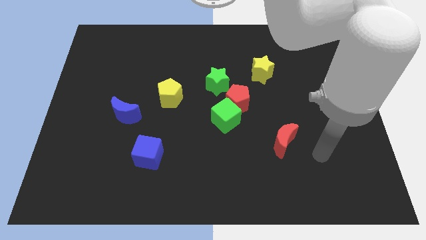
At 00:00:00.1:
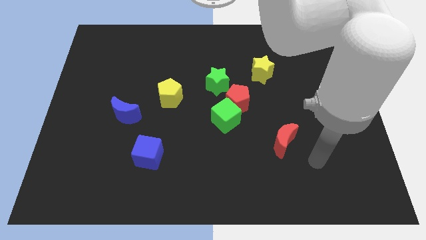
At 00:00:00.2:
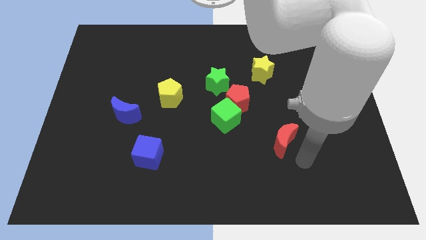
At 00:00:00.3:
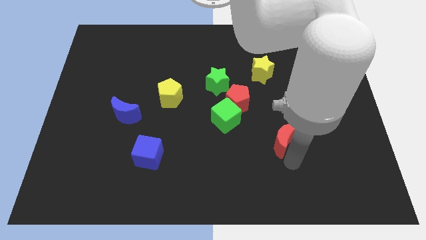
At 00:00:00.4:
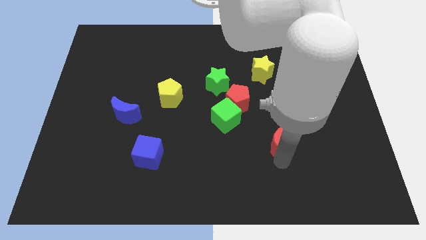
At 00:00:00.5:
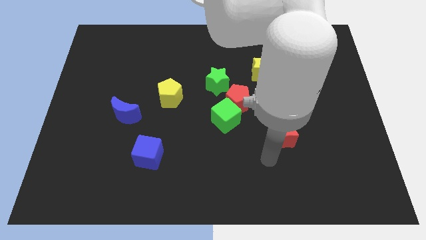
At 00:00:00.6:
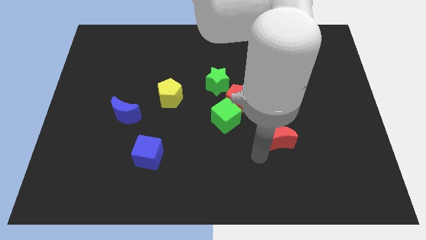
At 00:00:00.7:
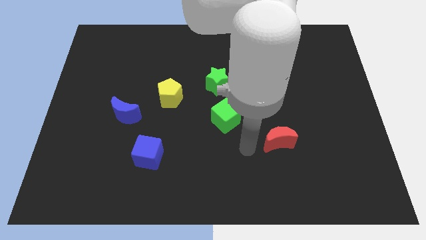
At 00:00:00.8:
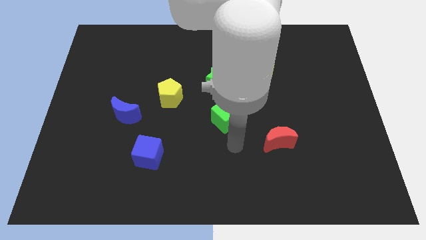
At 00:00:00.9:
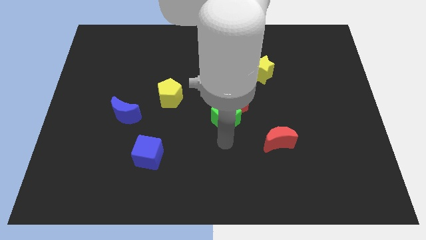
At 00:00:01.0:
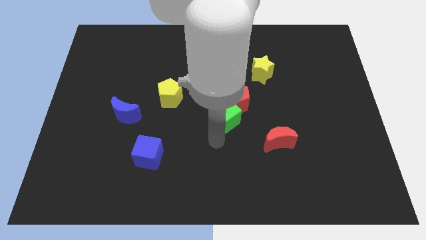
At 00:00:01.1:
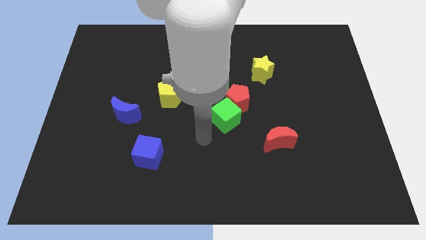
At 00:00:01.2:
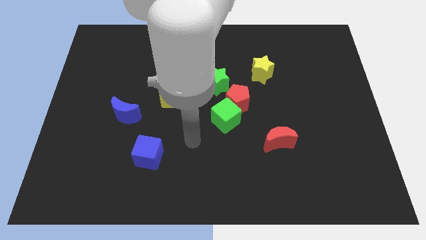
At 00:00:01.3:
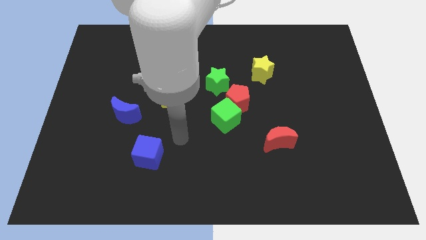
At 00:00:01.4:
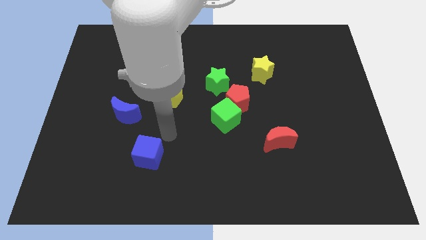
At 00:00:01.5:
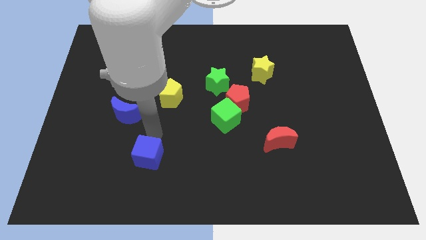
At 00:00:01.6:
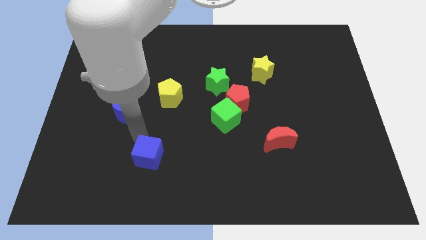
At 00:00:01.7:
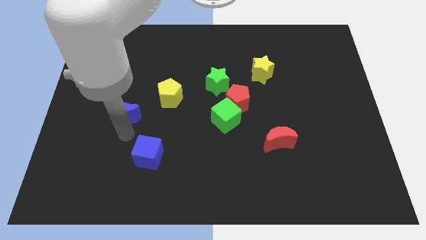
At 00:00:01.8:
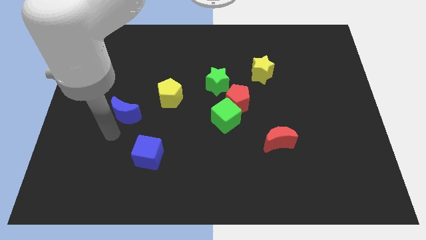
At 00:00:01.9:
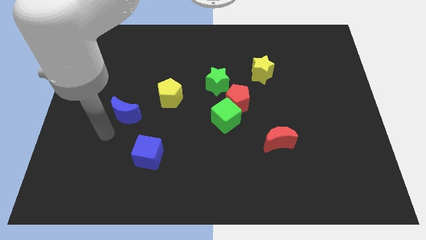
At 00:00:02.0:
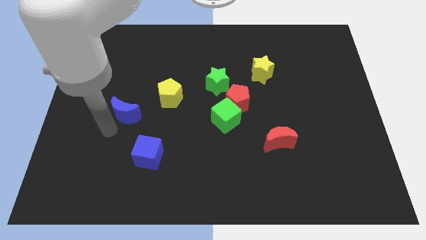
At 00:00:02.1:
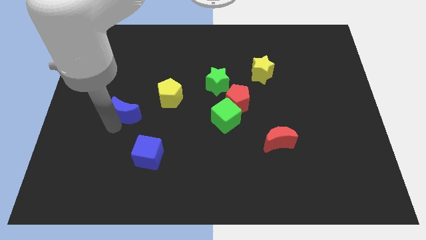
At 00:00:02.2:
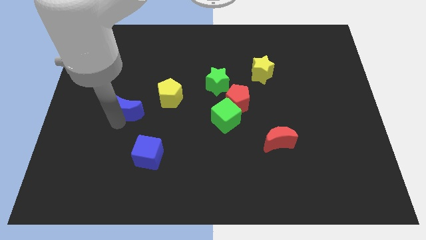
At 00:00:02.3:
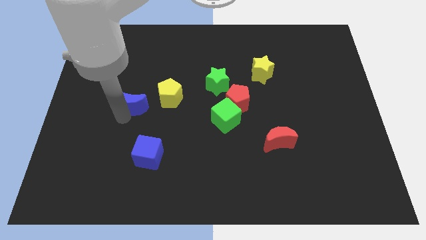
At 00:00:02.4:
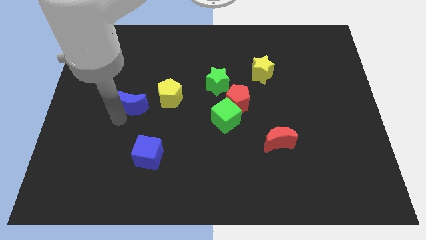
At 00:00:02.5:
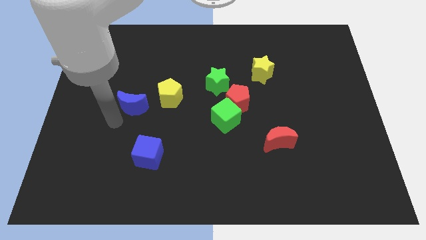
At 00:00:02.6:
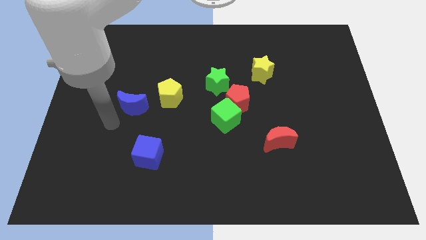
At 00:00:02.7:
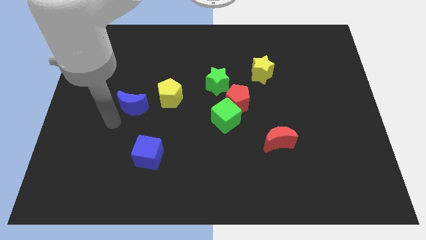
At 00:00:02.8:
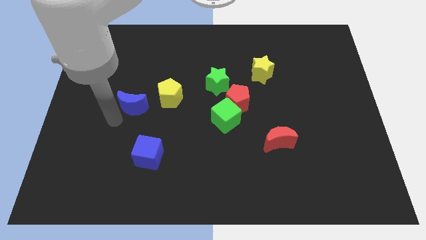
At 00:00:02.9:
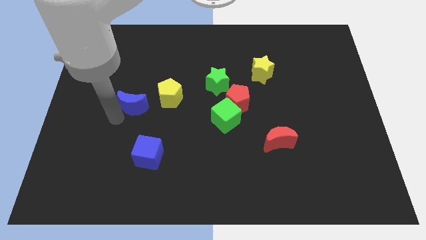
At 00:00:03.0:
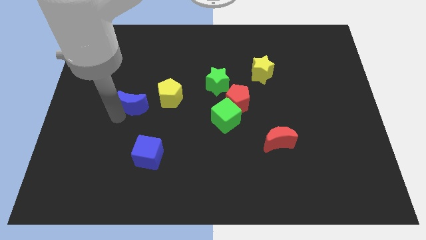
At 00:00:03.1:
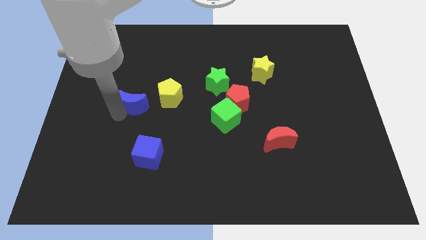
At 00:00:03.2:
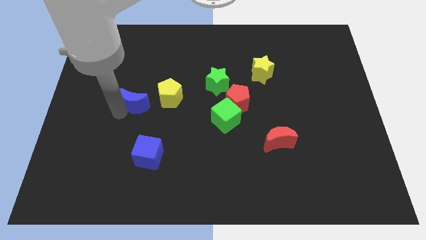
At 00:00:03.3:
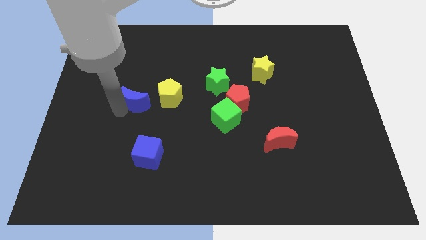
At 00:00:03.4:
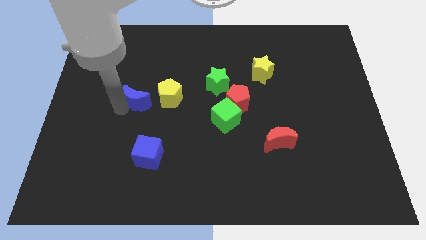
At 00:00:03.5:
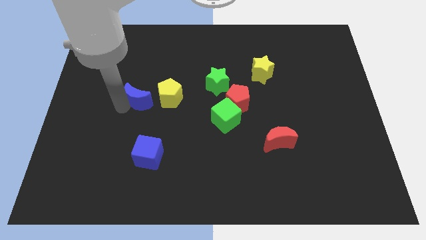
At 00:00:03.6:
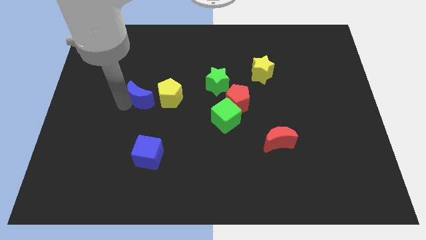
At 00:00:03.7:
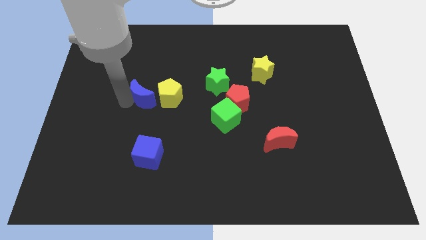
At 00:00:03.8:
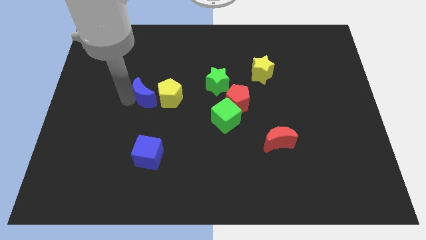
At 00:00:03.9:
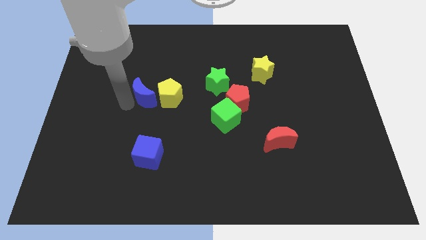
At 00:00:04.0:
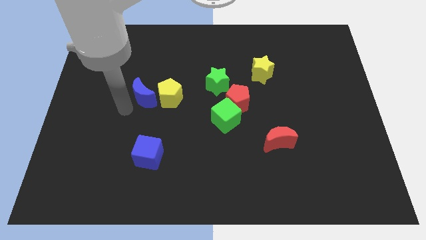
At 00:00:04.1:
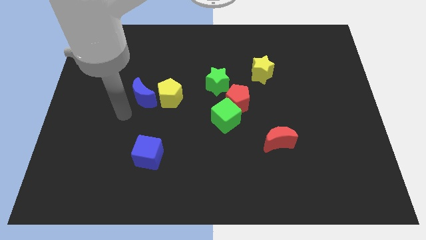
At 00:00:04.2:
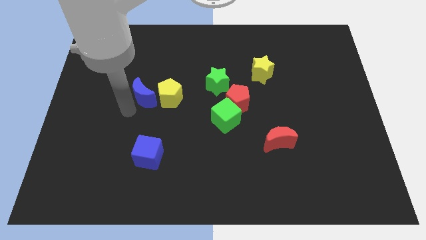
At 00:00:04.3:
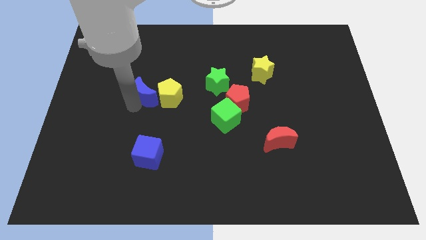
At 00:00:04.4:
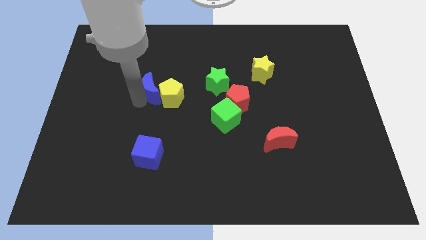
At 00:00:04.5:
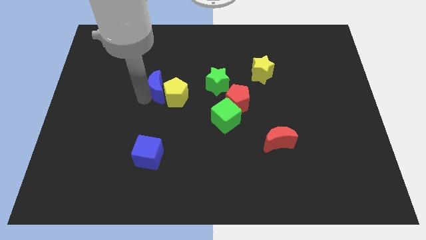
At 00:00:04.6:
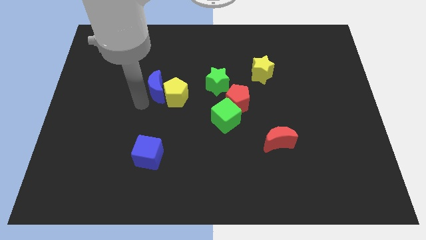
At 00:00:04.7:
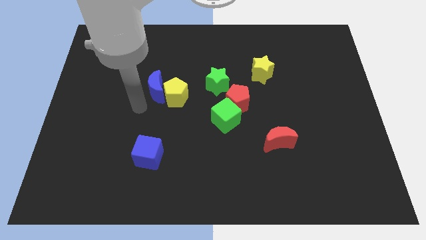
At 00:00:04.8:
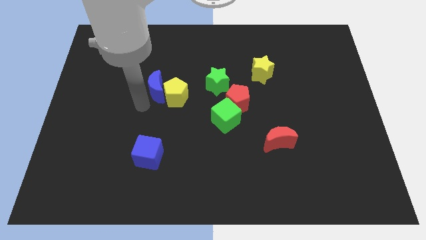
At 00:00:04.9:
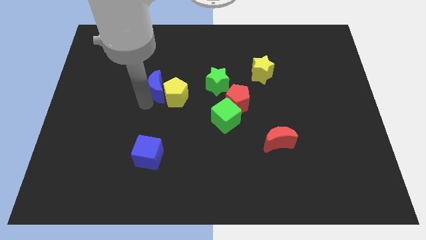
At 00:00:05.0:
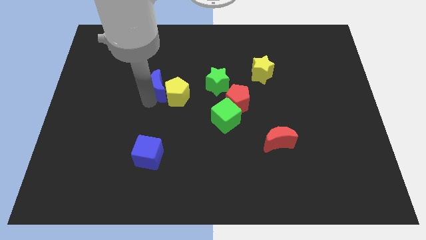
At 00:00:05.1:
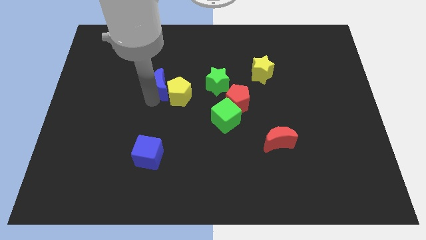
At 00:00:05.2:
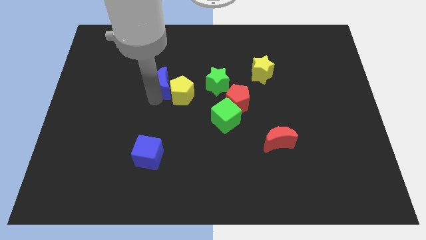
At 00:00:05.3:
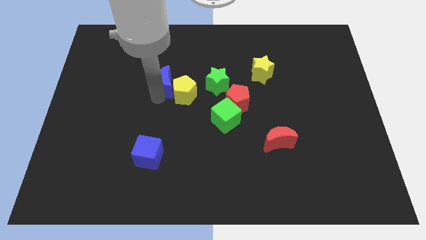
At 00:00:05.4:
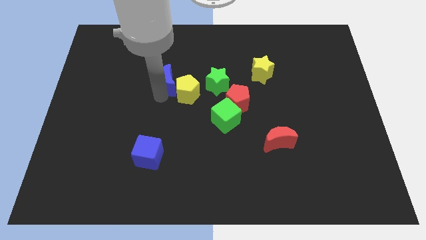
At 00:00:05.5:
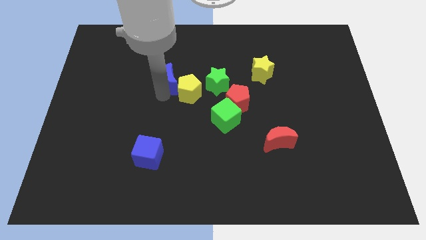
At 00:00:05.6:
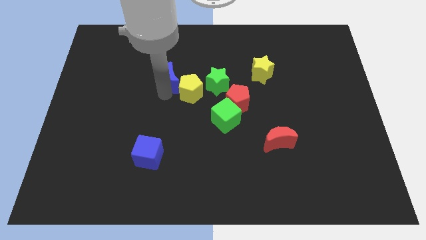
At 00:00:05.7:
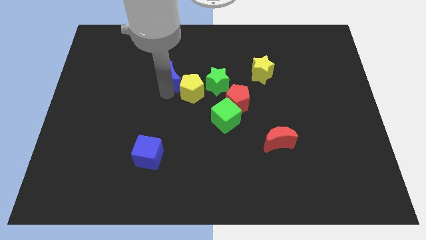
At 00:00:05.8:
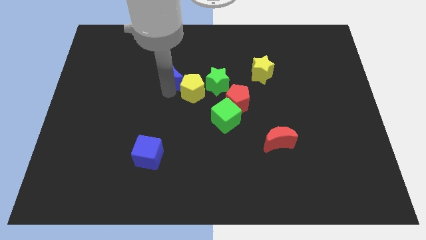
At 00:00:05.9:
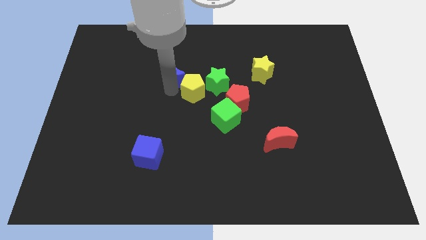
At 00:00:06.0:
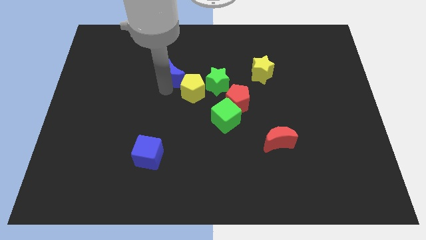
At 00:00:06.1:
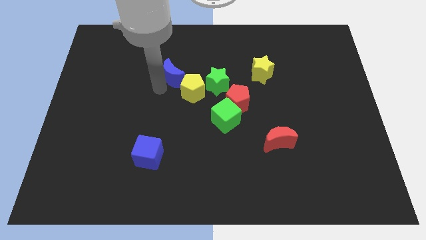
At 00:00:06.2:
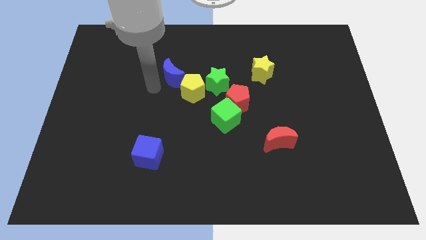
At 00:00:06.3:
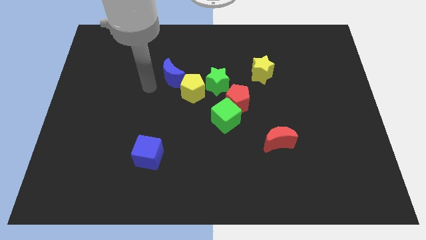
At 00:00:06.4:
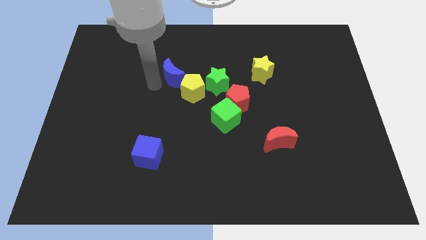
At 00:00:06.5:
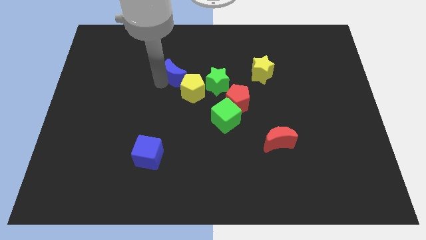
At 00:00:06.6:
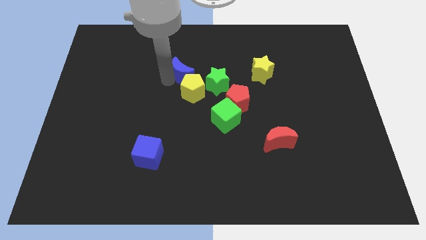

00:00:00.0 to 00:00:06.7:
push the blue moon diagonally up and to the left of the green star

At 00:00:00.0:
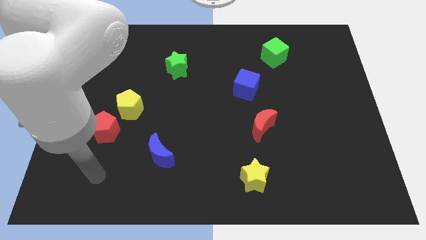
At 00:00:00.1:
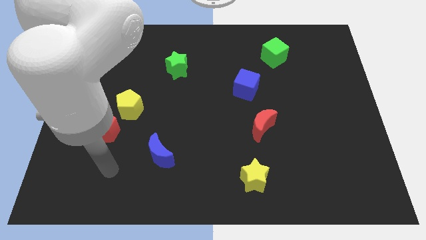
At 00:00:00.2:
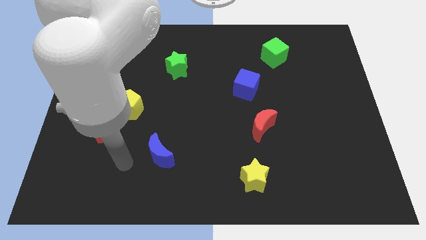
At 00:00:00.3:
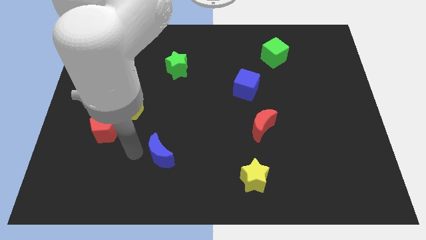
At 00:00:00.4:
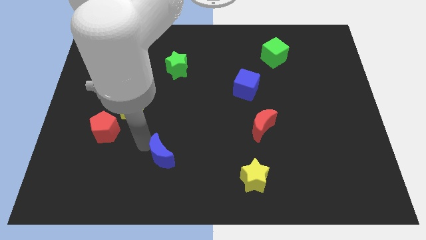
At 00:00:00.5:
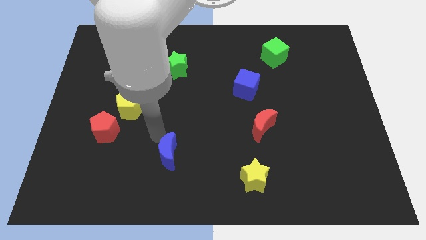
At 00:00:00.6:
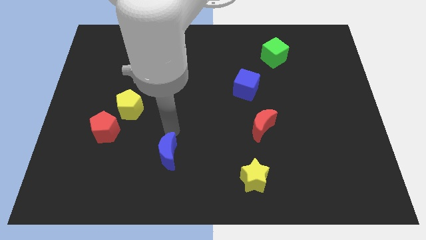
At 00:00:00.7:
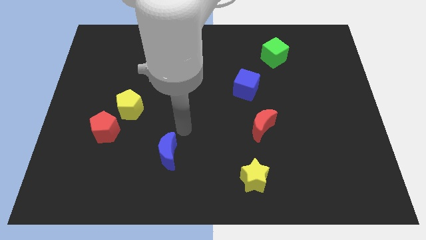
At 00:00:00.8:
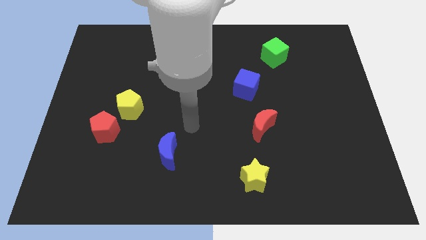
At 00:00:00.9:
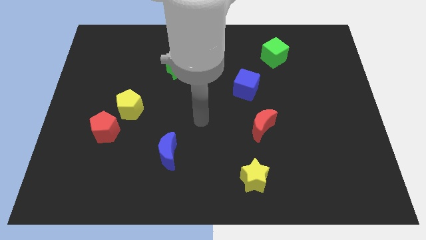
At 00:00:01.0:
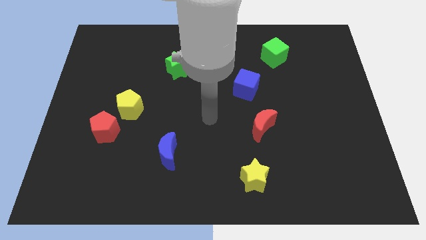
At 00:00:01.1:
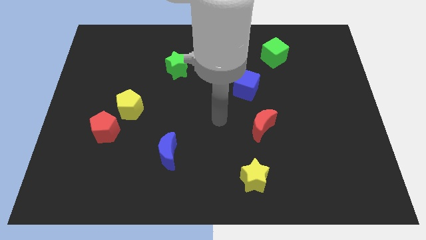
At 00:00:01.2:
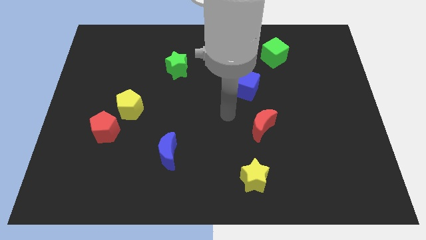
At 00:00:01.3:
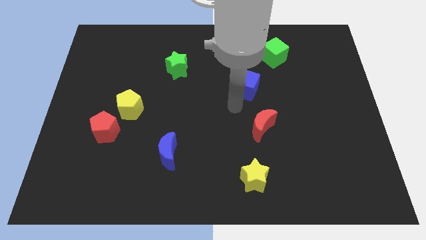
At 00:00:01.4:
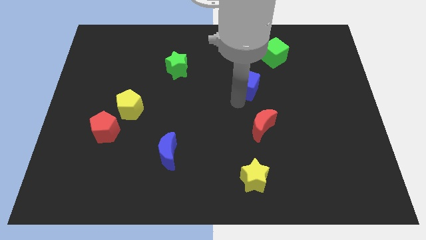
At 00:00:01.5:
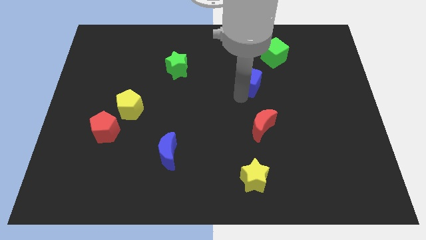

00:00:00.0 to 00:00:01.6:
put the blue cube diagonally down and to the left of the green cube
